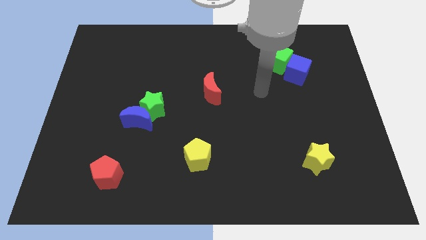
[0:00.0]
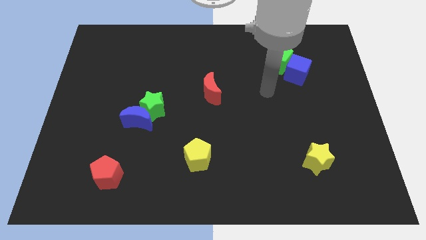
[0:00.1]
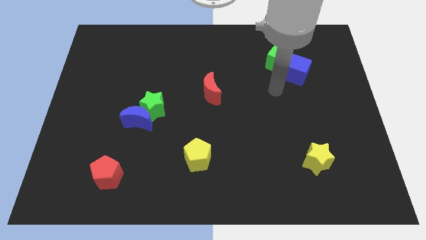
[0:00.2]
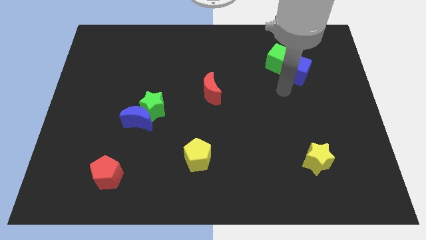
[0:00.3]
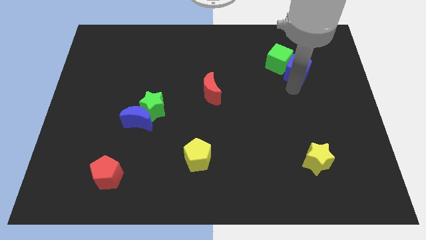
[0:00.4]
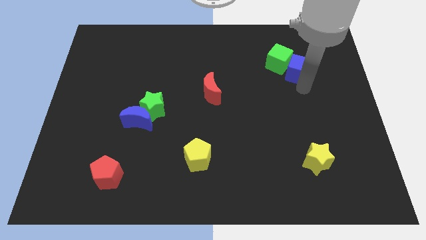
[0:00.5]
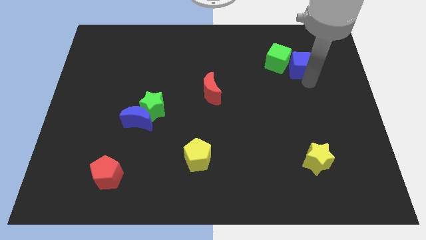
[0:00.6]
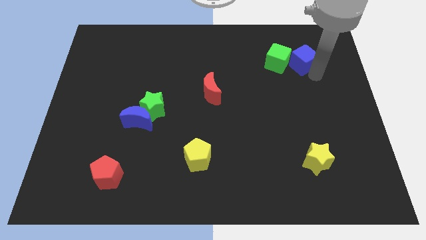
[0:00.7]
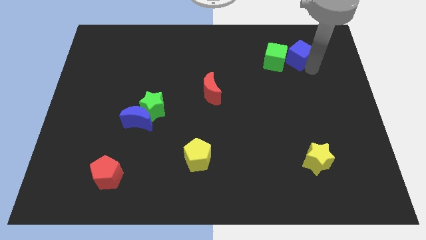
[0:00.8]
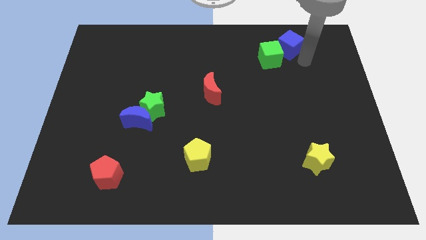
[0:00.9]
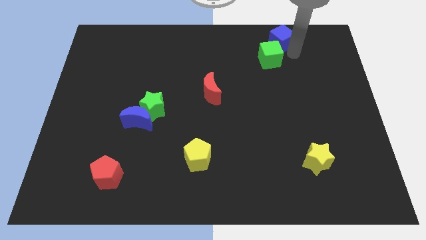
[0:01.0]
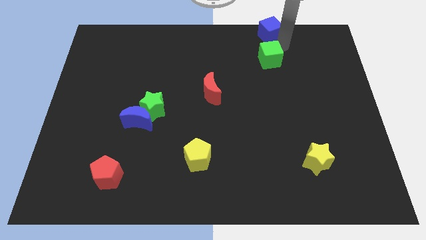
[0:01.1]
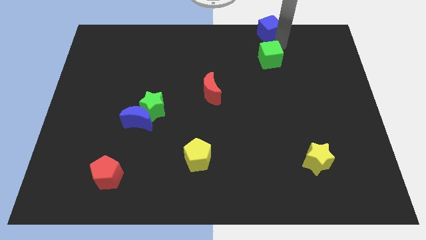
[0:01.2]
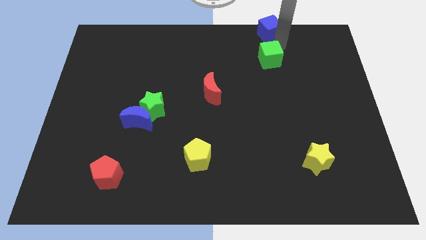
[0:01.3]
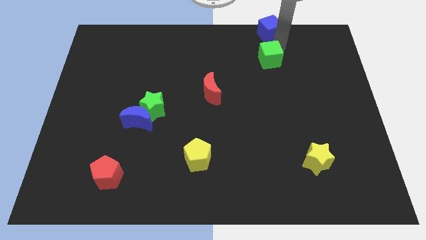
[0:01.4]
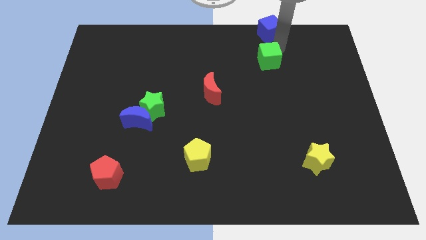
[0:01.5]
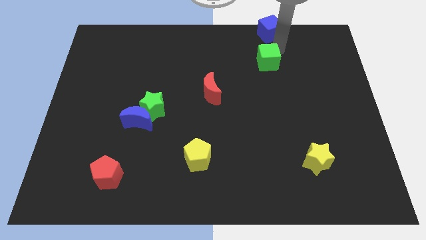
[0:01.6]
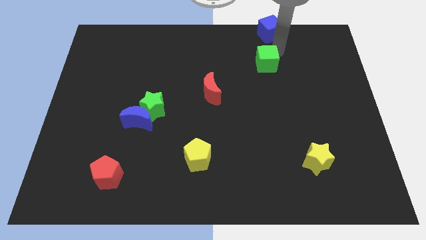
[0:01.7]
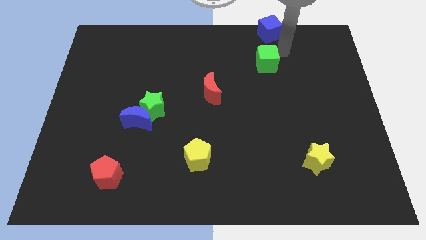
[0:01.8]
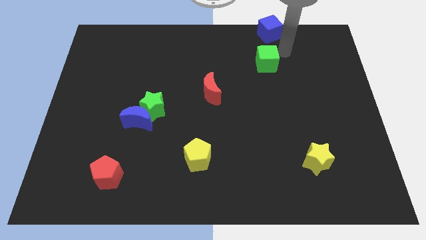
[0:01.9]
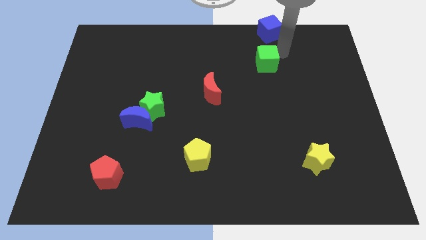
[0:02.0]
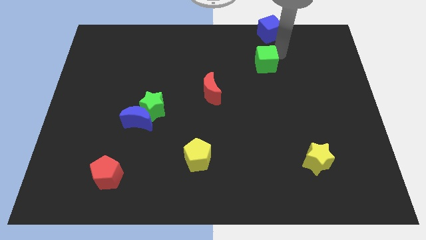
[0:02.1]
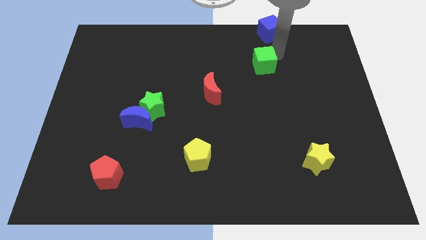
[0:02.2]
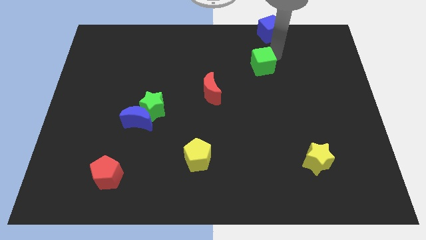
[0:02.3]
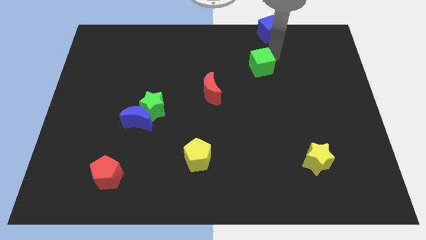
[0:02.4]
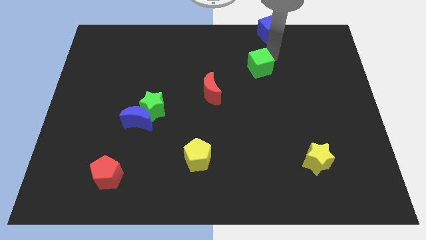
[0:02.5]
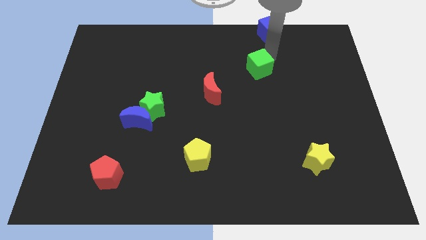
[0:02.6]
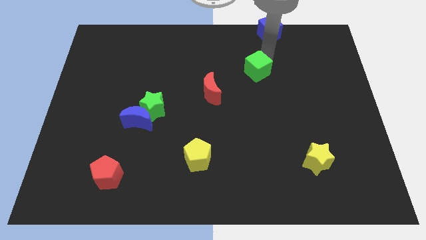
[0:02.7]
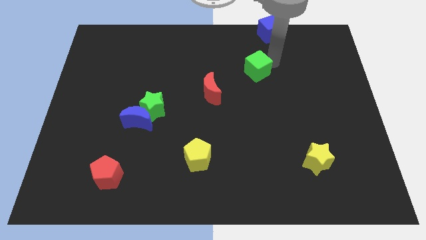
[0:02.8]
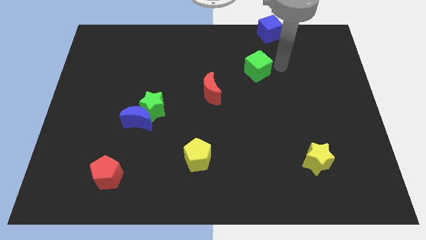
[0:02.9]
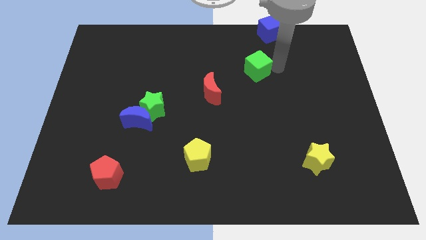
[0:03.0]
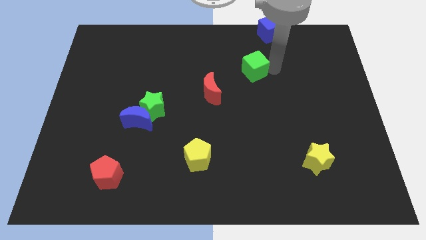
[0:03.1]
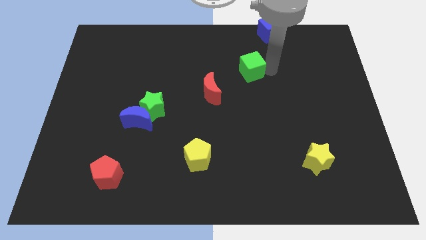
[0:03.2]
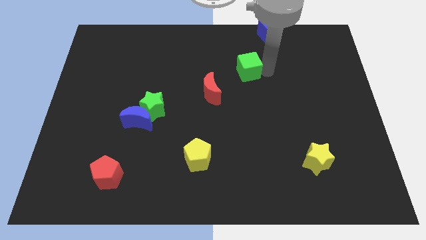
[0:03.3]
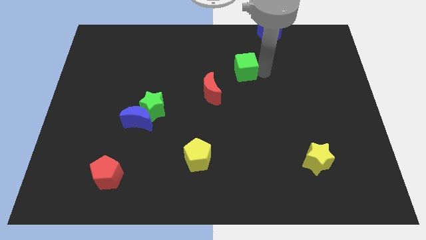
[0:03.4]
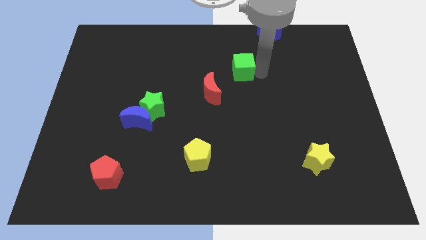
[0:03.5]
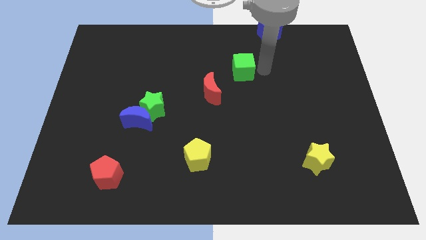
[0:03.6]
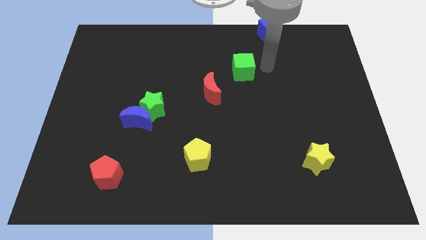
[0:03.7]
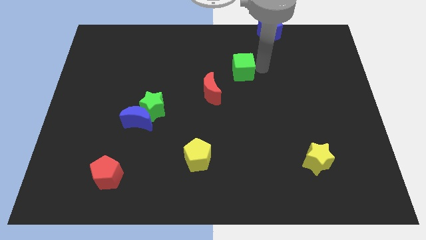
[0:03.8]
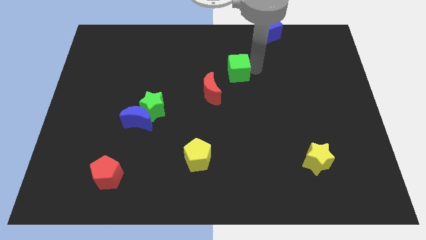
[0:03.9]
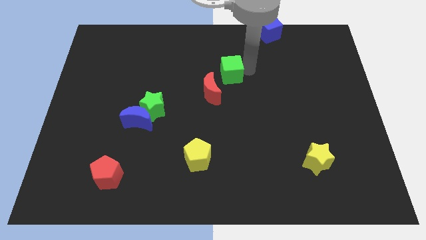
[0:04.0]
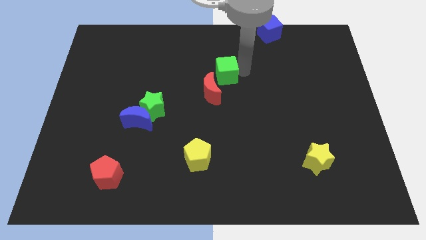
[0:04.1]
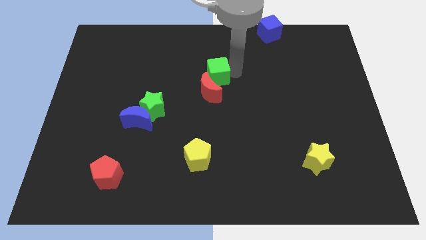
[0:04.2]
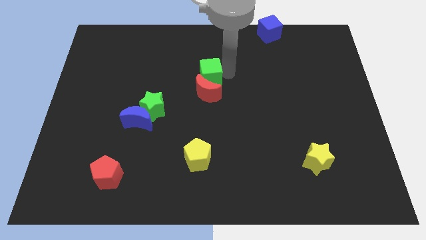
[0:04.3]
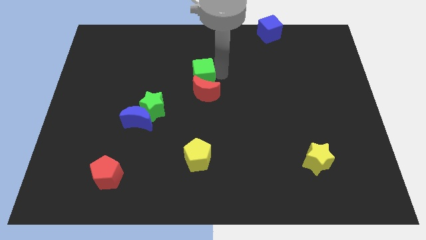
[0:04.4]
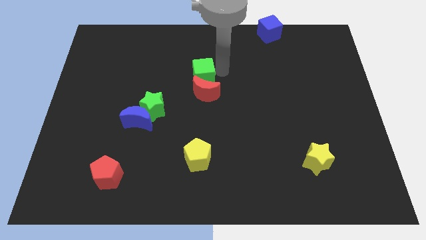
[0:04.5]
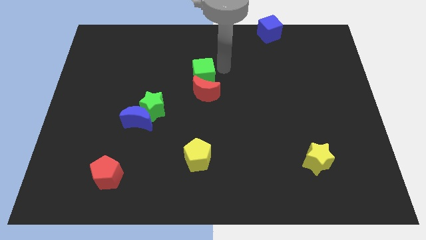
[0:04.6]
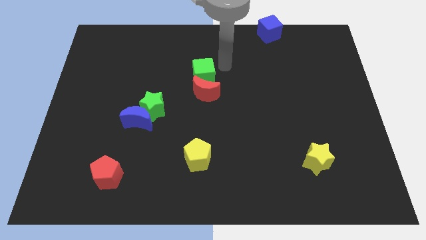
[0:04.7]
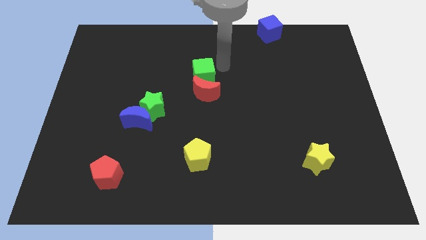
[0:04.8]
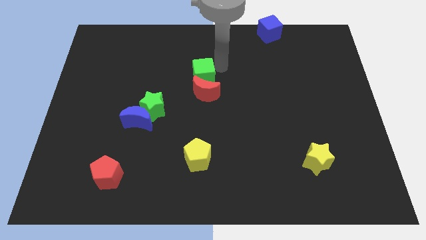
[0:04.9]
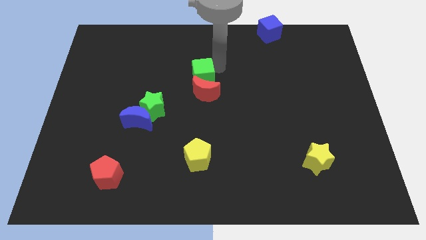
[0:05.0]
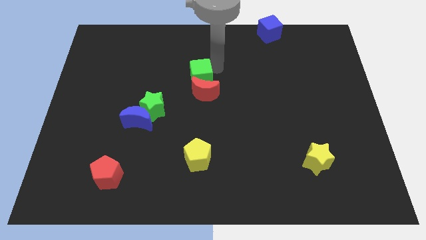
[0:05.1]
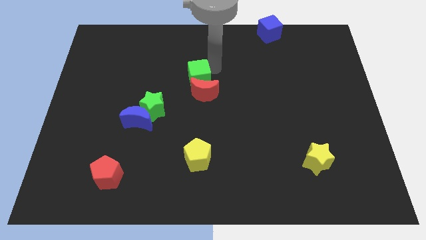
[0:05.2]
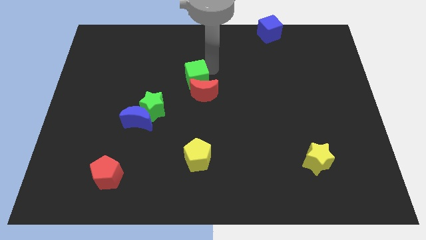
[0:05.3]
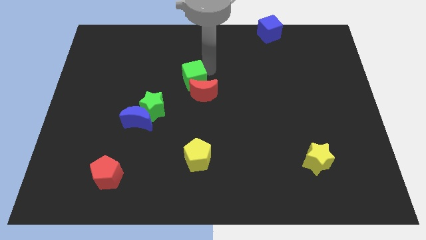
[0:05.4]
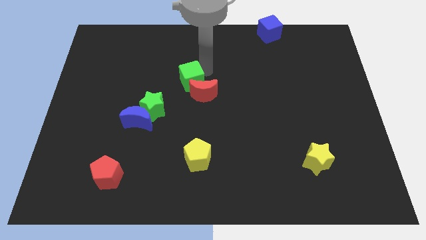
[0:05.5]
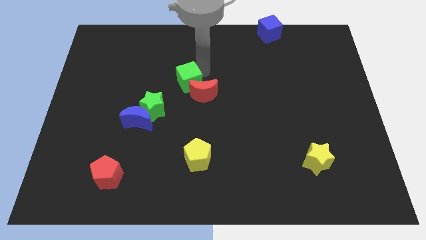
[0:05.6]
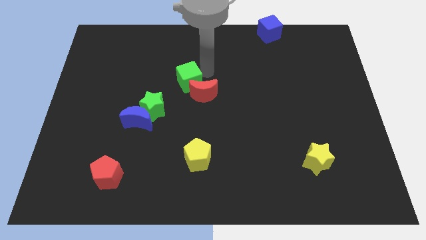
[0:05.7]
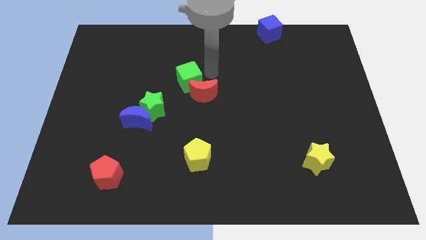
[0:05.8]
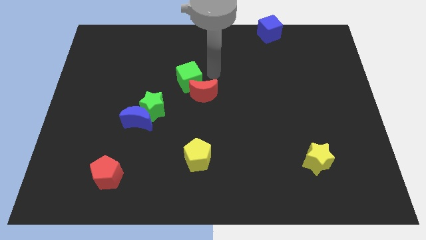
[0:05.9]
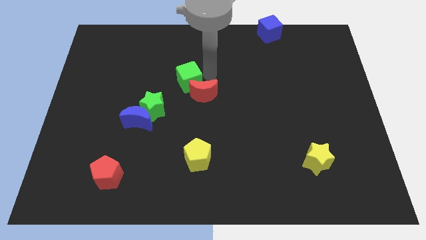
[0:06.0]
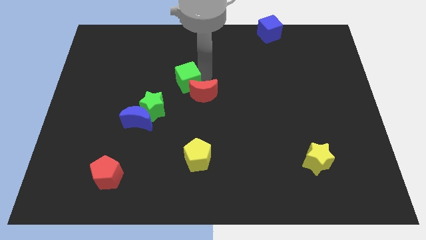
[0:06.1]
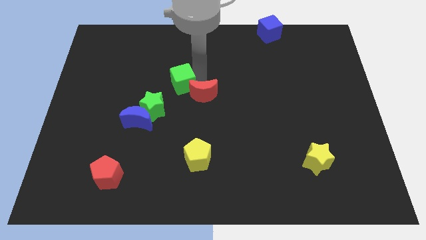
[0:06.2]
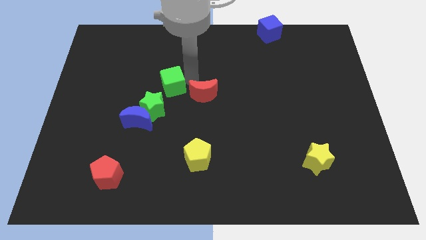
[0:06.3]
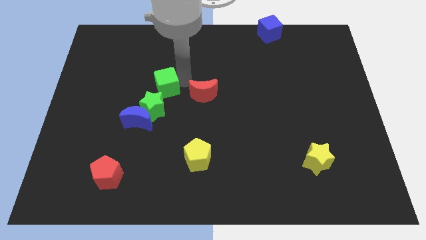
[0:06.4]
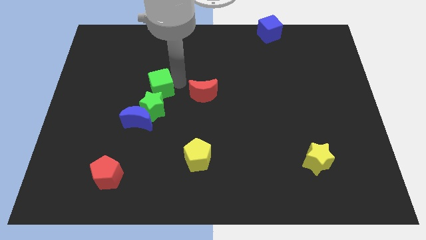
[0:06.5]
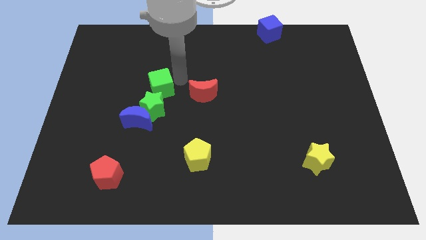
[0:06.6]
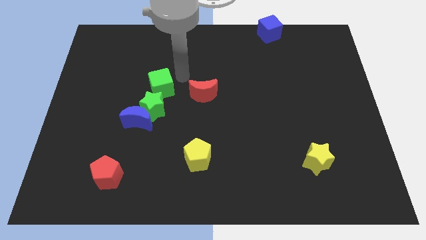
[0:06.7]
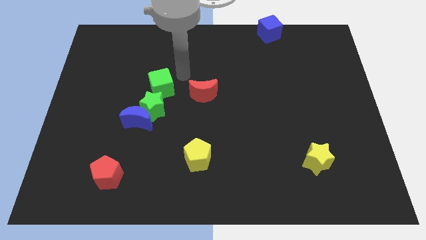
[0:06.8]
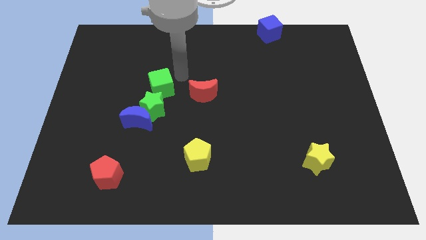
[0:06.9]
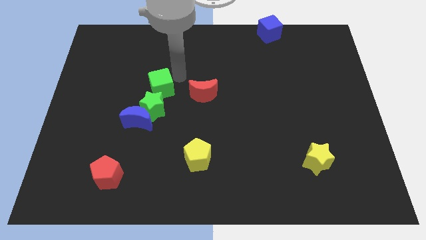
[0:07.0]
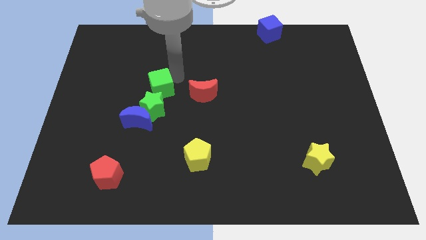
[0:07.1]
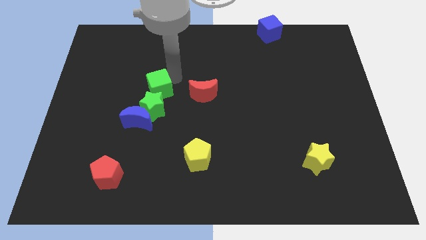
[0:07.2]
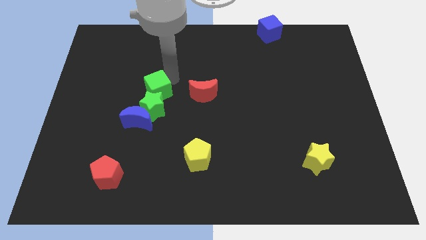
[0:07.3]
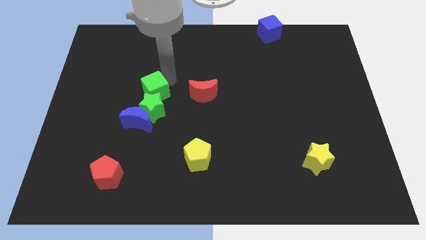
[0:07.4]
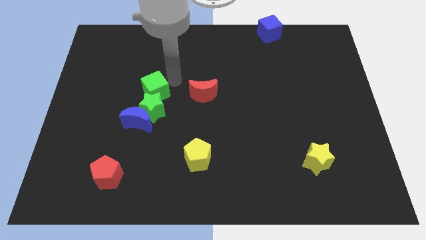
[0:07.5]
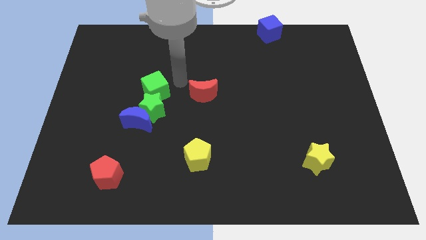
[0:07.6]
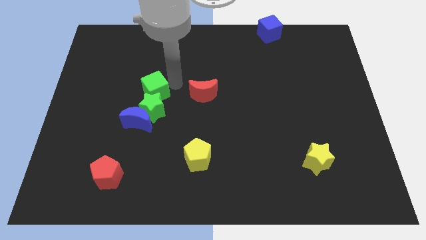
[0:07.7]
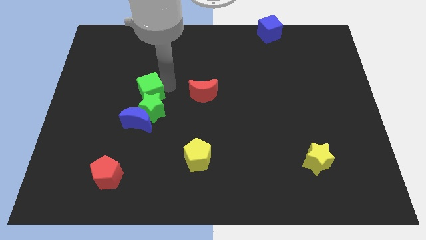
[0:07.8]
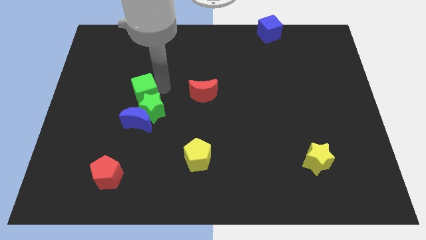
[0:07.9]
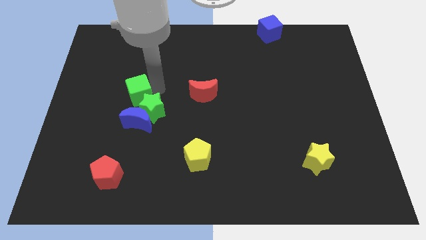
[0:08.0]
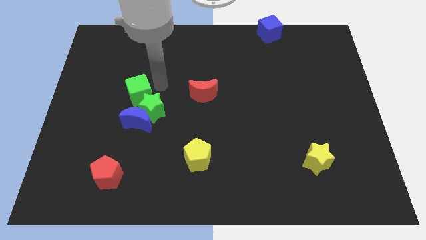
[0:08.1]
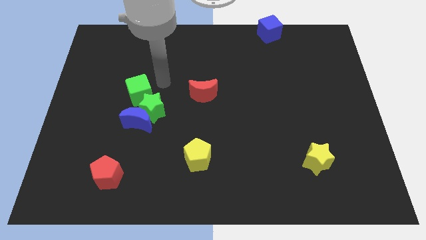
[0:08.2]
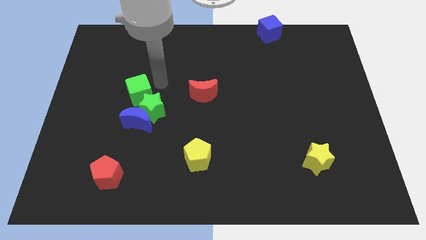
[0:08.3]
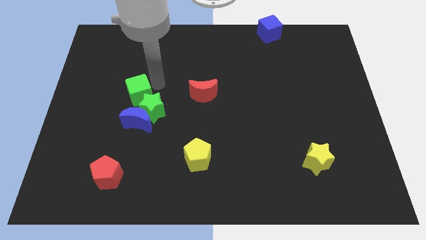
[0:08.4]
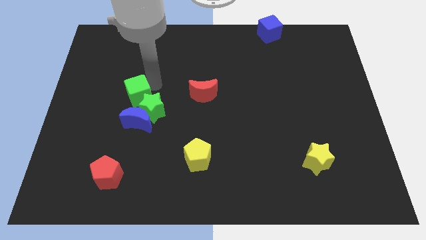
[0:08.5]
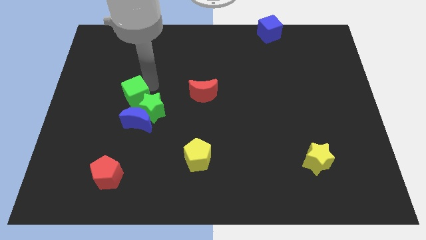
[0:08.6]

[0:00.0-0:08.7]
move the green cube to the top left side of the blue moon
